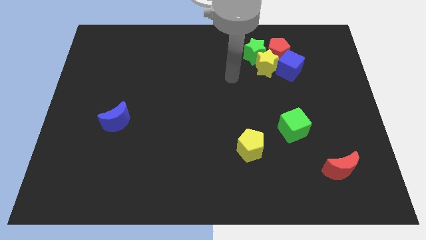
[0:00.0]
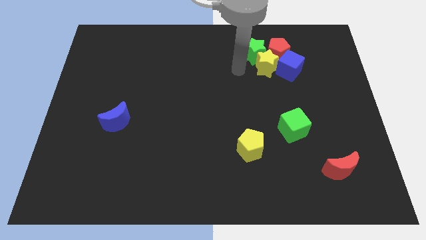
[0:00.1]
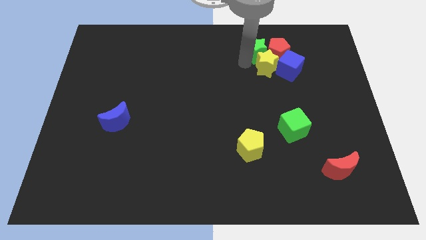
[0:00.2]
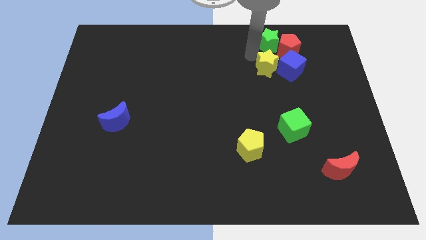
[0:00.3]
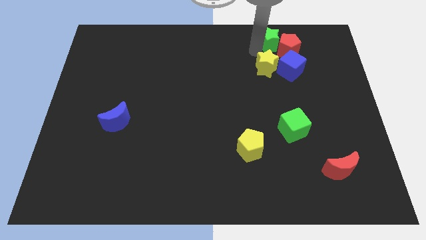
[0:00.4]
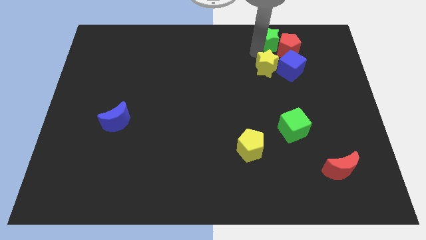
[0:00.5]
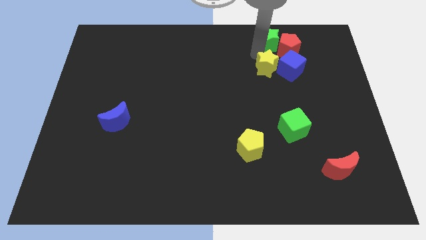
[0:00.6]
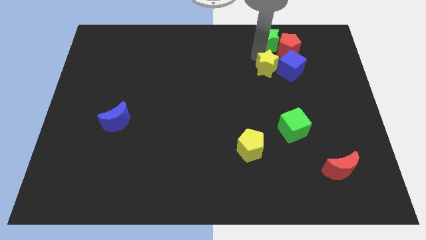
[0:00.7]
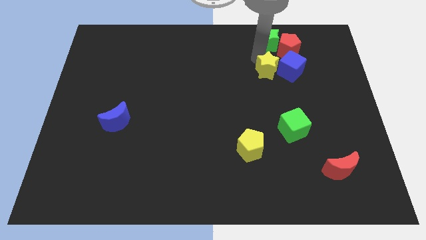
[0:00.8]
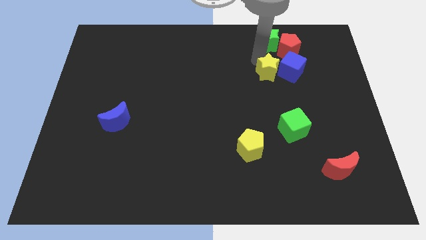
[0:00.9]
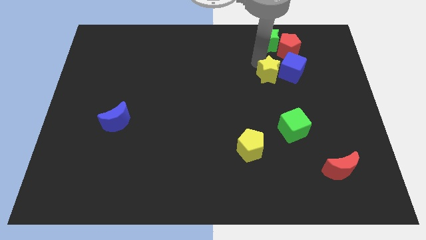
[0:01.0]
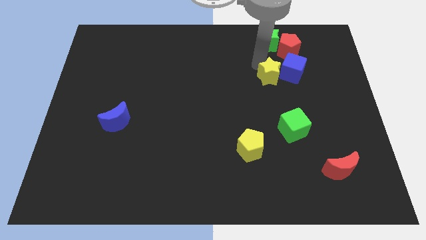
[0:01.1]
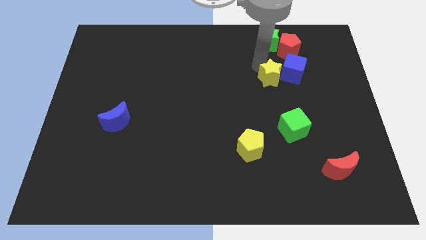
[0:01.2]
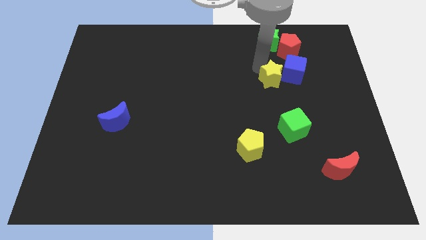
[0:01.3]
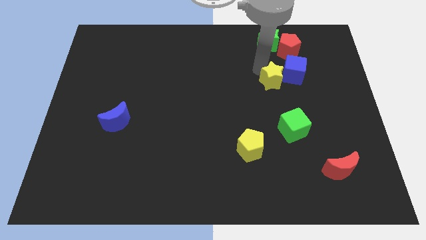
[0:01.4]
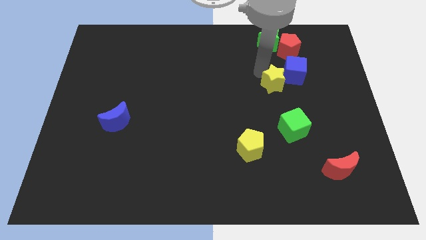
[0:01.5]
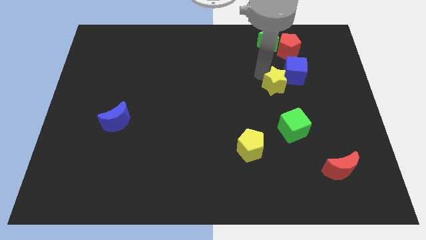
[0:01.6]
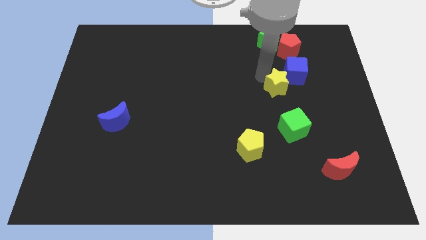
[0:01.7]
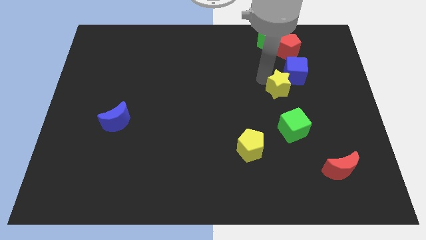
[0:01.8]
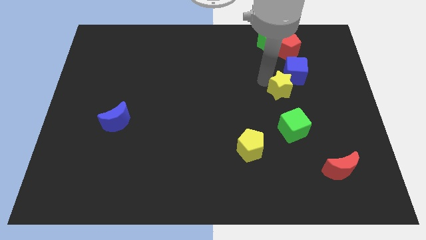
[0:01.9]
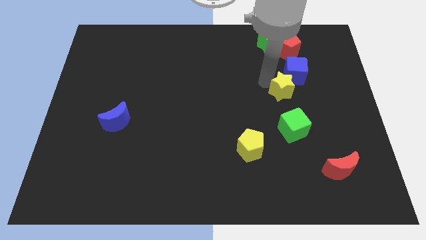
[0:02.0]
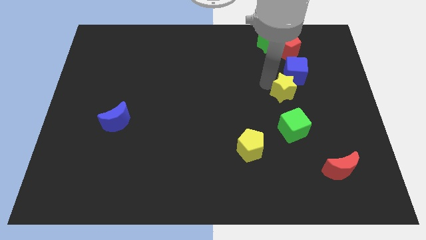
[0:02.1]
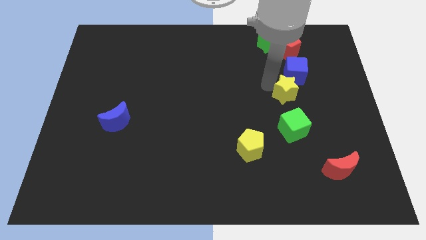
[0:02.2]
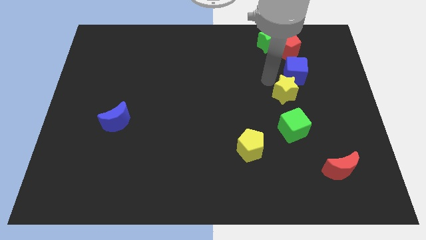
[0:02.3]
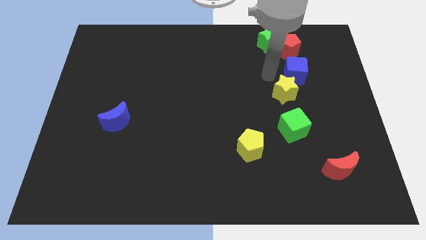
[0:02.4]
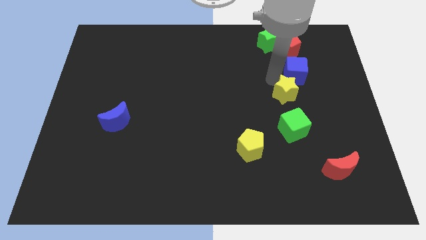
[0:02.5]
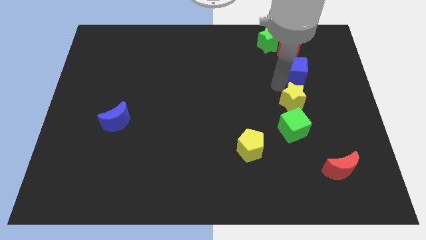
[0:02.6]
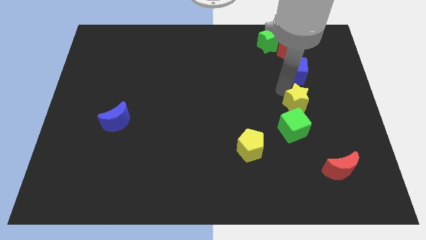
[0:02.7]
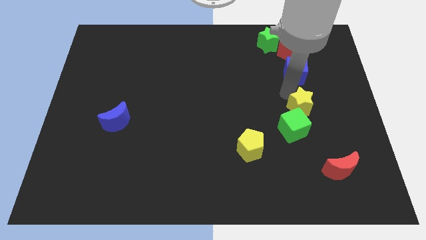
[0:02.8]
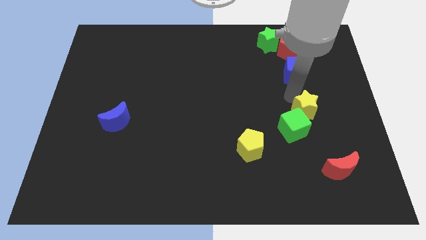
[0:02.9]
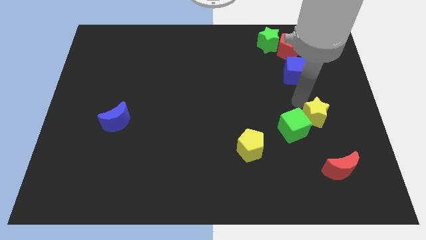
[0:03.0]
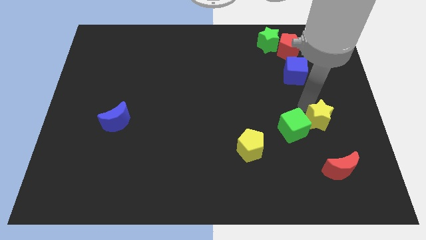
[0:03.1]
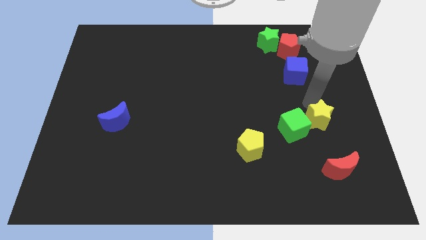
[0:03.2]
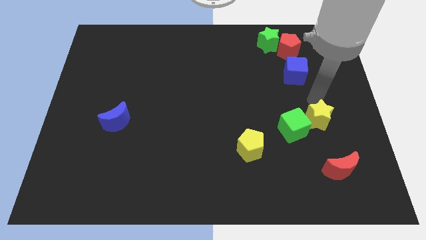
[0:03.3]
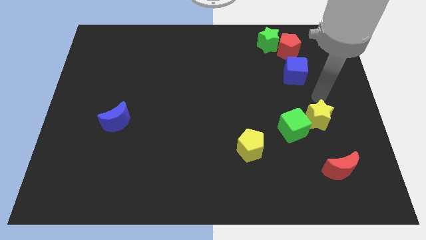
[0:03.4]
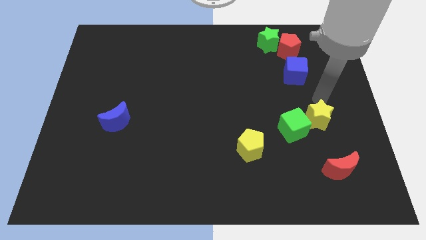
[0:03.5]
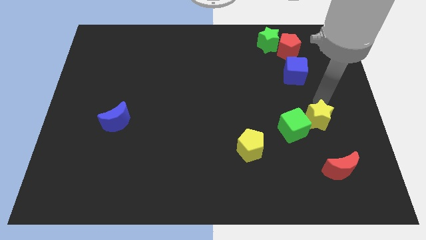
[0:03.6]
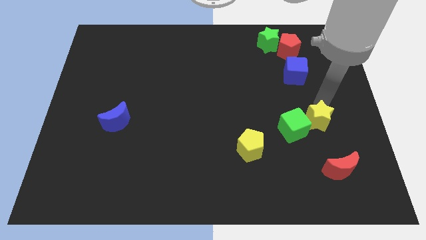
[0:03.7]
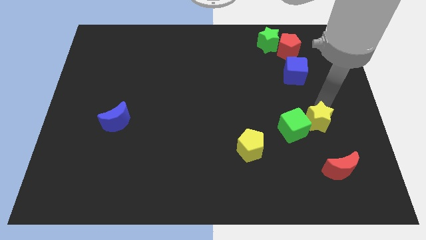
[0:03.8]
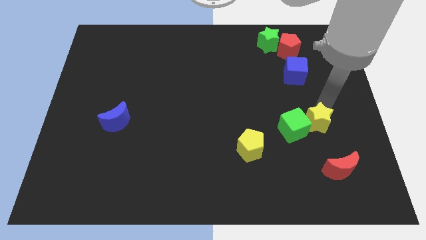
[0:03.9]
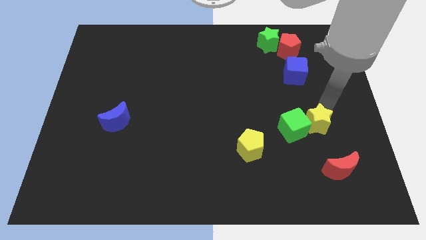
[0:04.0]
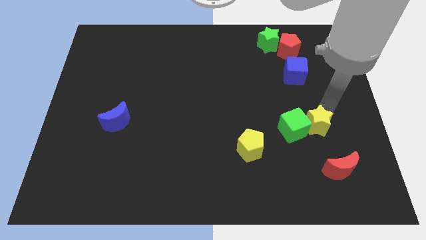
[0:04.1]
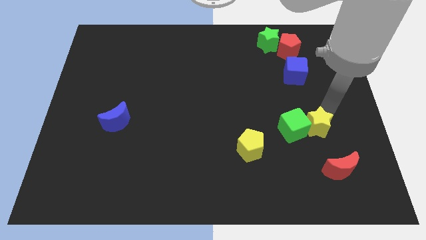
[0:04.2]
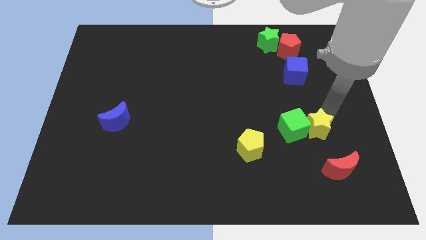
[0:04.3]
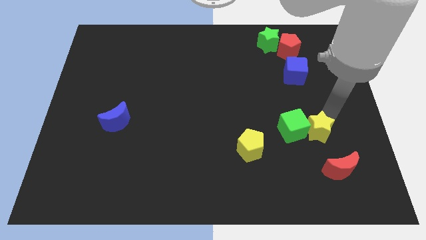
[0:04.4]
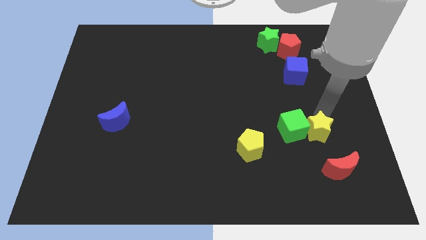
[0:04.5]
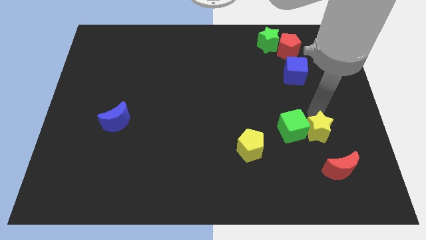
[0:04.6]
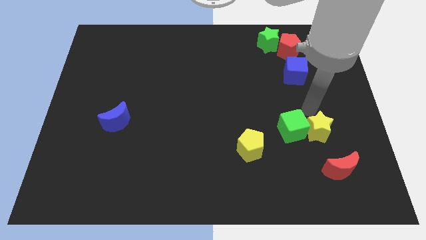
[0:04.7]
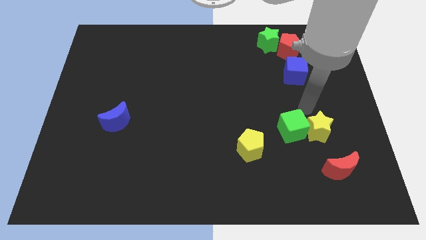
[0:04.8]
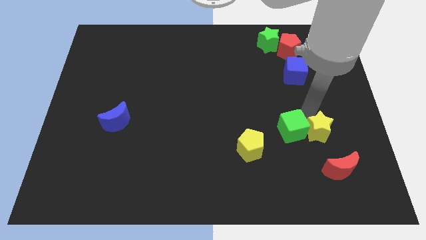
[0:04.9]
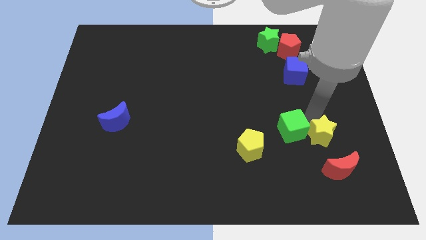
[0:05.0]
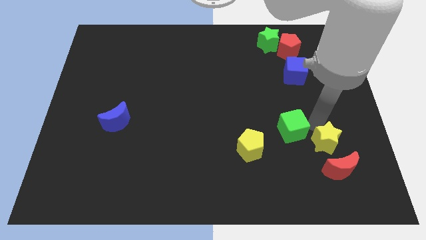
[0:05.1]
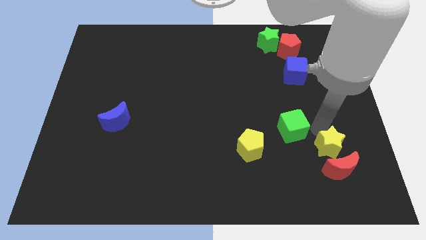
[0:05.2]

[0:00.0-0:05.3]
move the yellow star to the red moon

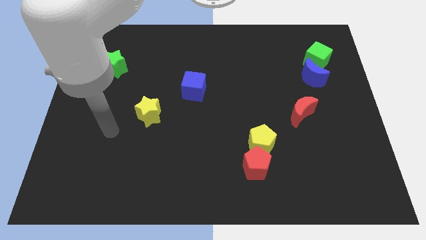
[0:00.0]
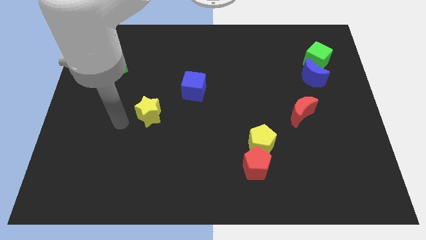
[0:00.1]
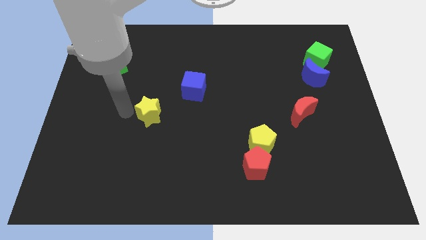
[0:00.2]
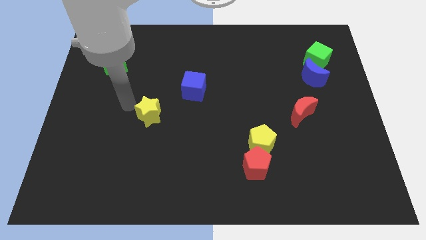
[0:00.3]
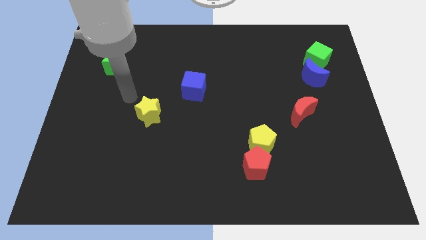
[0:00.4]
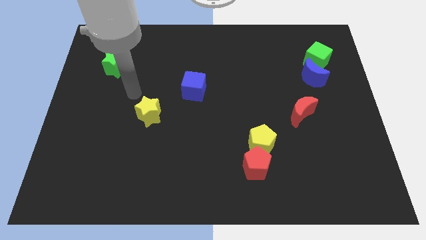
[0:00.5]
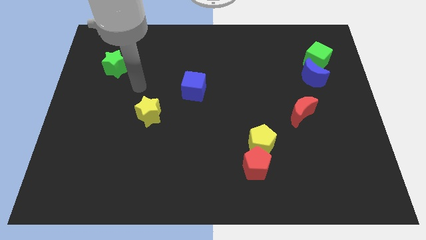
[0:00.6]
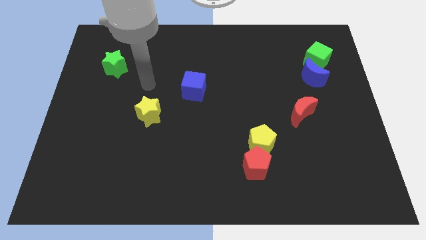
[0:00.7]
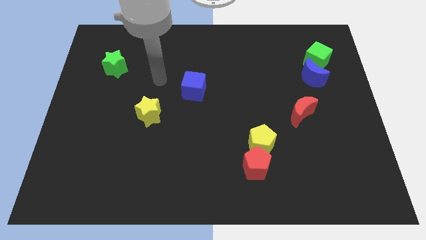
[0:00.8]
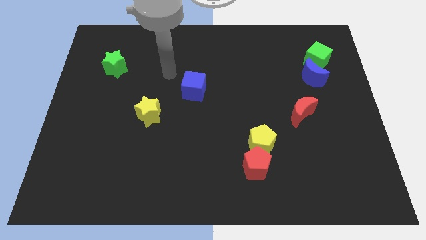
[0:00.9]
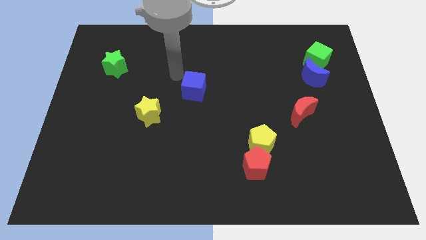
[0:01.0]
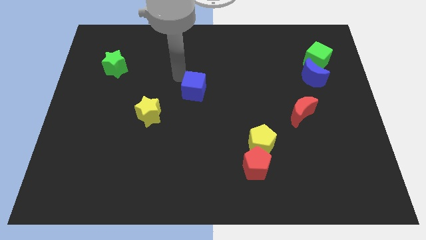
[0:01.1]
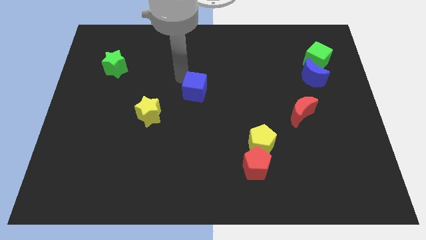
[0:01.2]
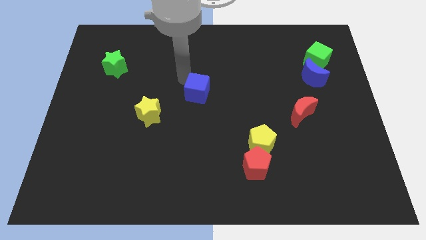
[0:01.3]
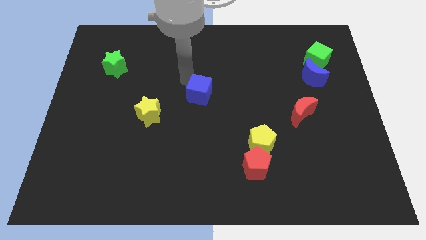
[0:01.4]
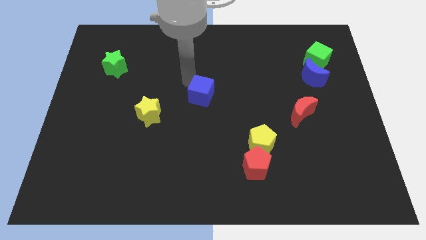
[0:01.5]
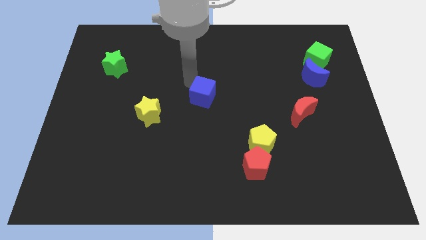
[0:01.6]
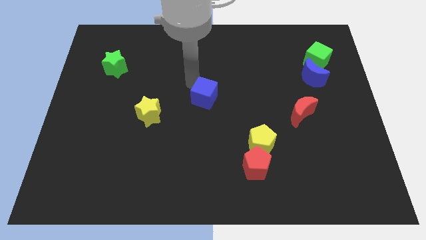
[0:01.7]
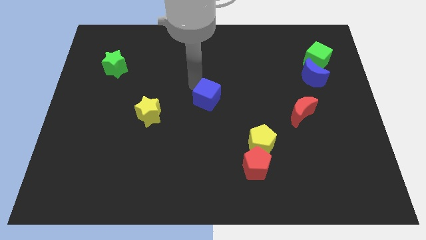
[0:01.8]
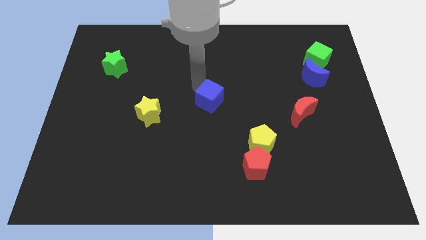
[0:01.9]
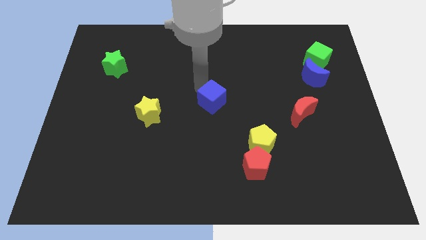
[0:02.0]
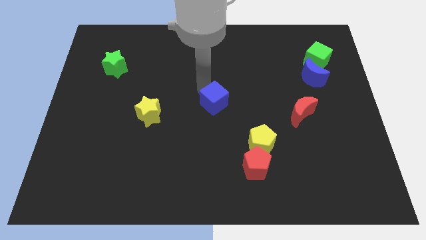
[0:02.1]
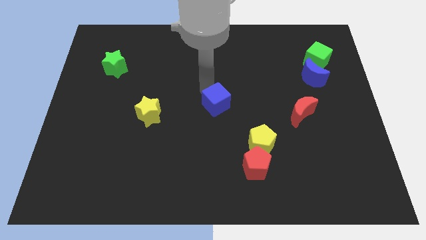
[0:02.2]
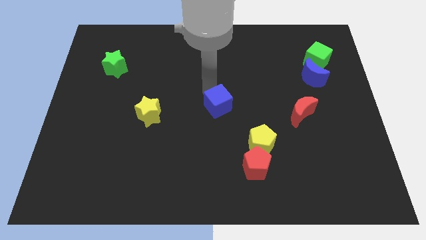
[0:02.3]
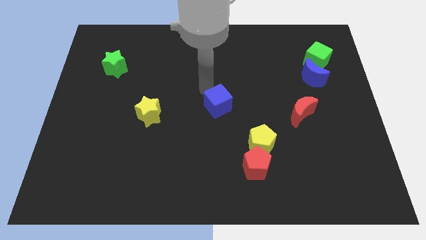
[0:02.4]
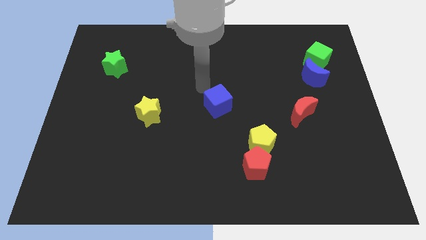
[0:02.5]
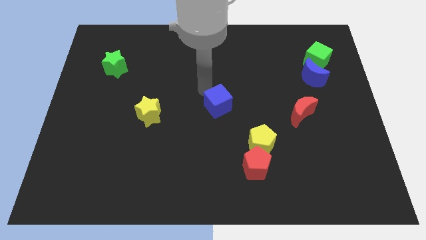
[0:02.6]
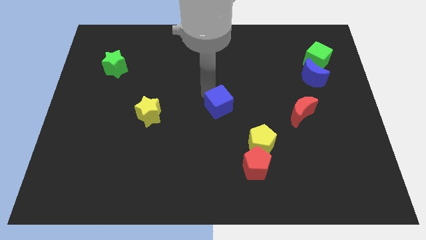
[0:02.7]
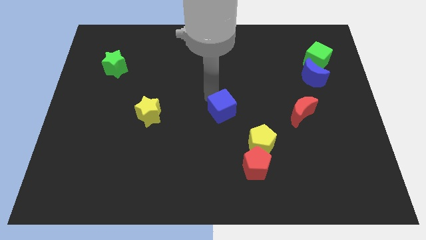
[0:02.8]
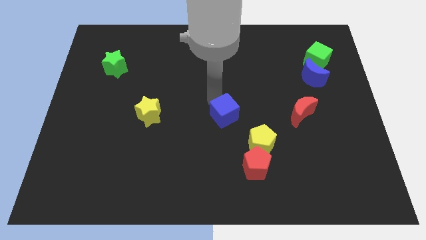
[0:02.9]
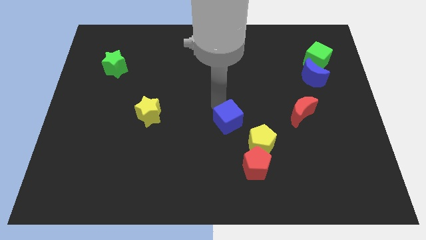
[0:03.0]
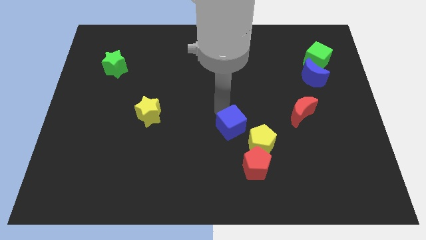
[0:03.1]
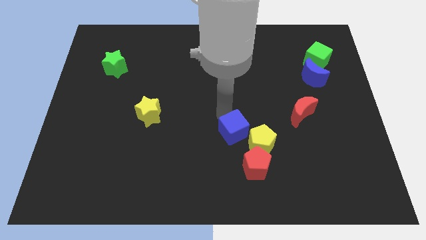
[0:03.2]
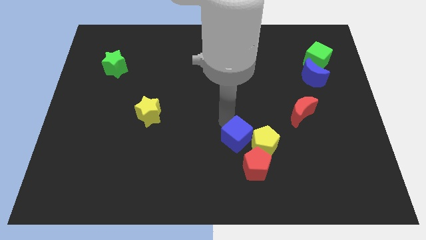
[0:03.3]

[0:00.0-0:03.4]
put the blue cube close to the yellow pentagon
